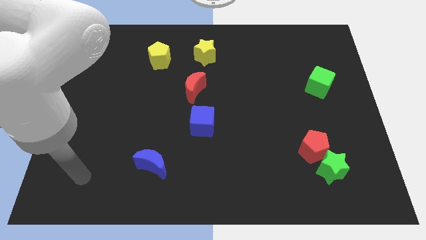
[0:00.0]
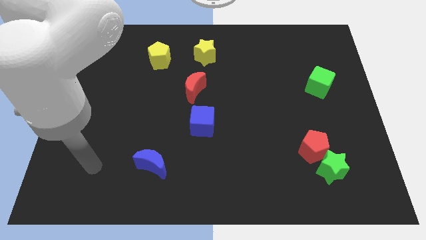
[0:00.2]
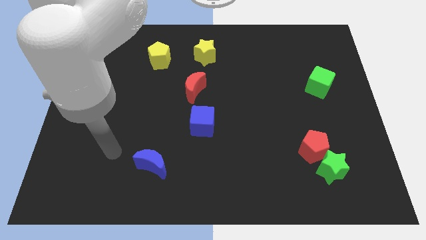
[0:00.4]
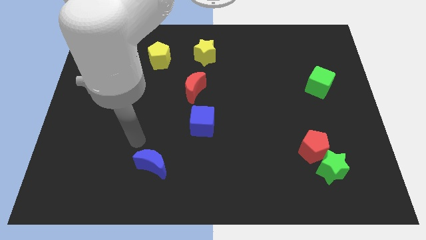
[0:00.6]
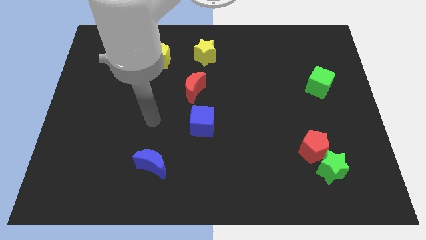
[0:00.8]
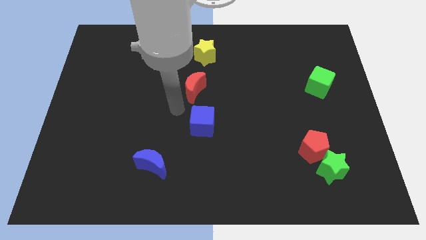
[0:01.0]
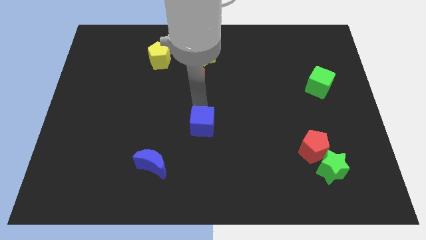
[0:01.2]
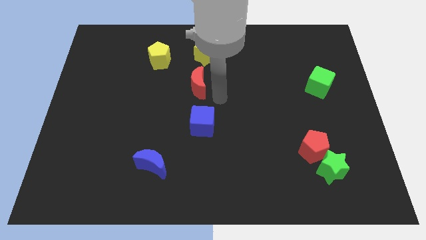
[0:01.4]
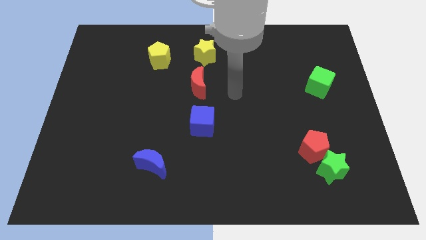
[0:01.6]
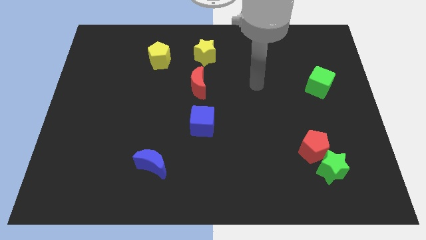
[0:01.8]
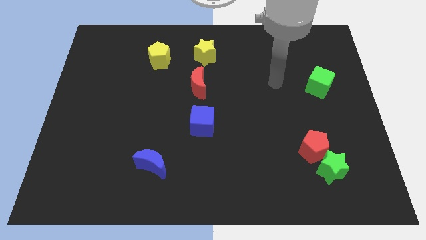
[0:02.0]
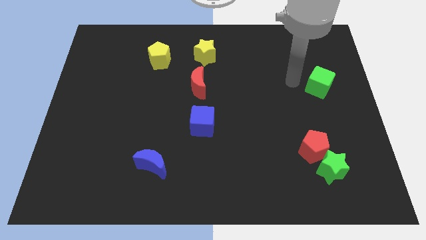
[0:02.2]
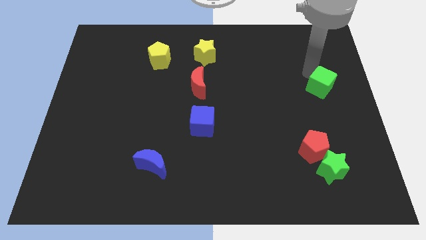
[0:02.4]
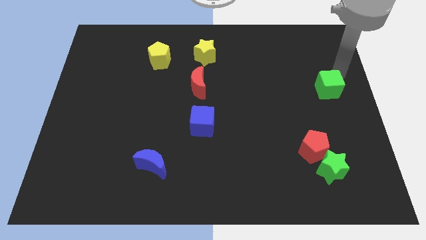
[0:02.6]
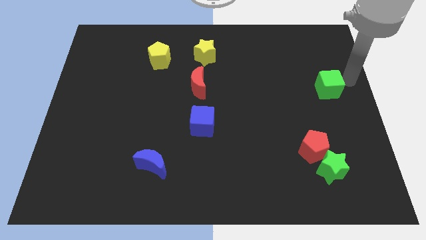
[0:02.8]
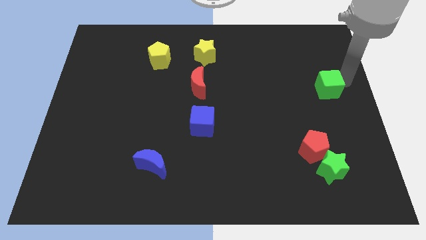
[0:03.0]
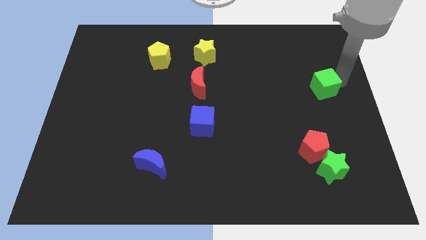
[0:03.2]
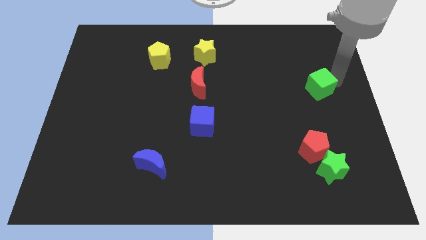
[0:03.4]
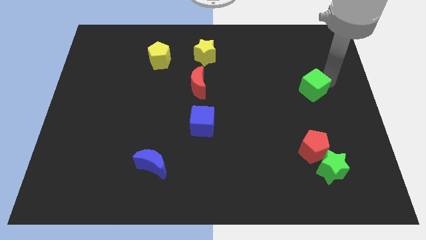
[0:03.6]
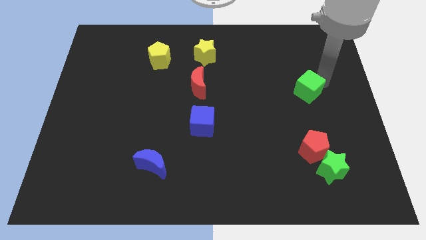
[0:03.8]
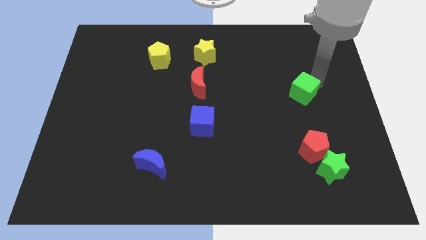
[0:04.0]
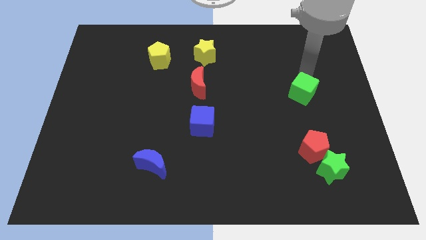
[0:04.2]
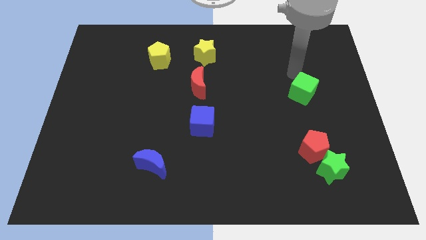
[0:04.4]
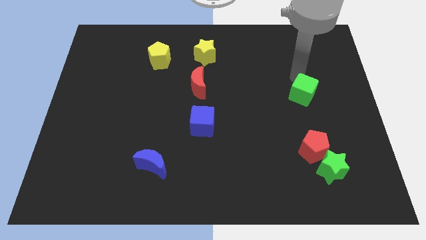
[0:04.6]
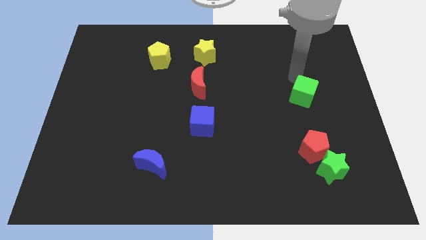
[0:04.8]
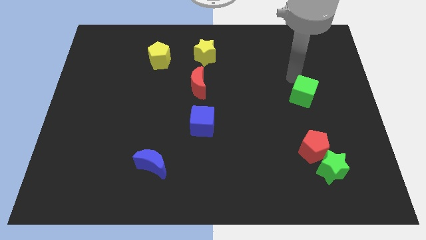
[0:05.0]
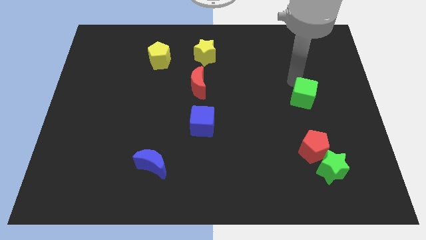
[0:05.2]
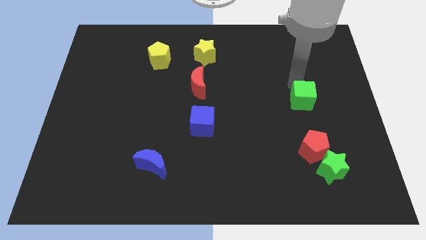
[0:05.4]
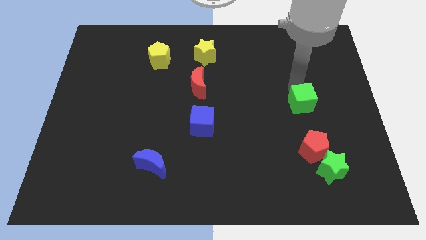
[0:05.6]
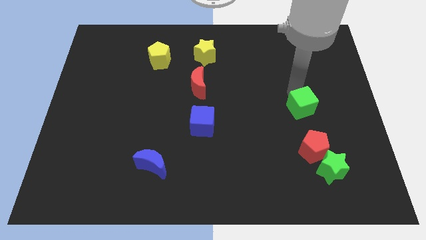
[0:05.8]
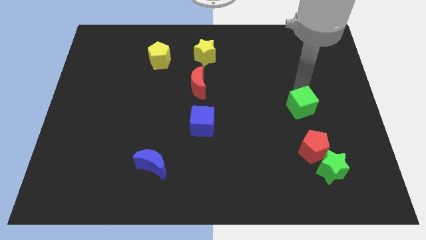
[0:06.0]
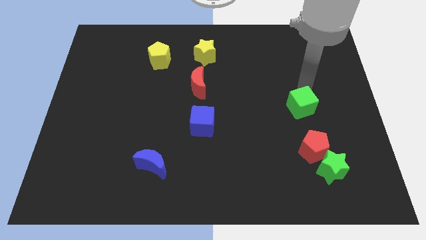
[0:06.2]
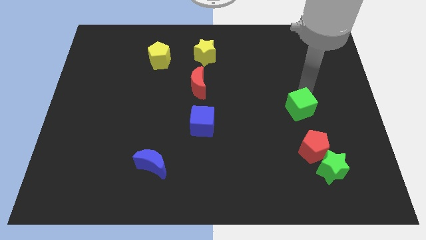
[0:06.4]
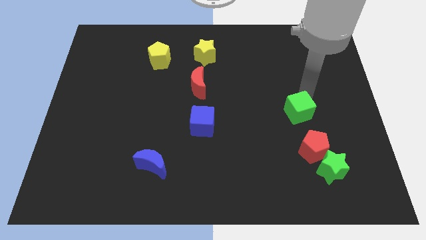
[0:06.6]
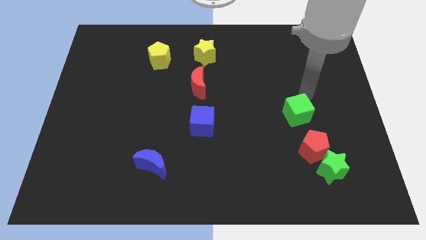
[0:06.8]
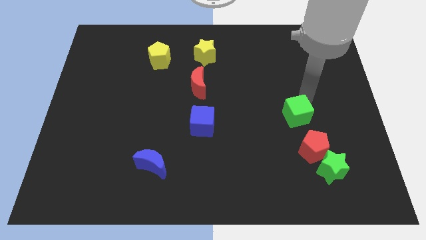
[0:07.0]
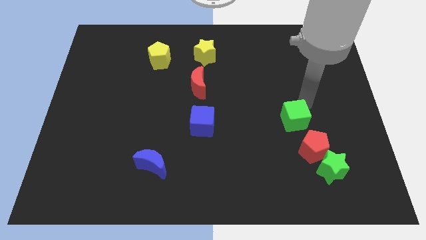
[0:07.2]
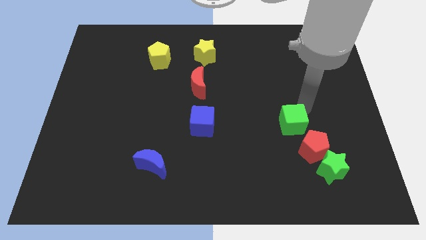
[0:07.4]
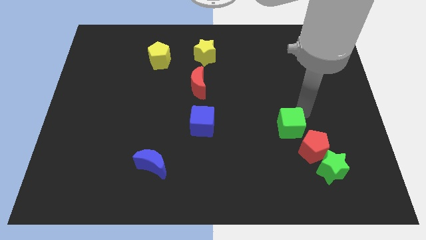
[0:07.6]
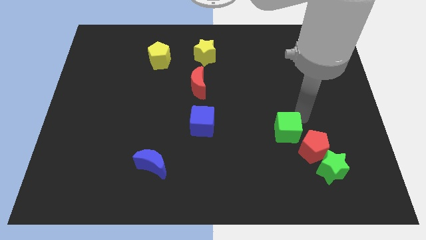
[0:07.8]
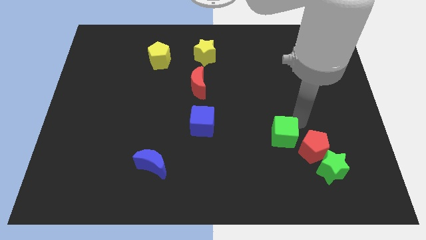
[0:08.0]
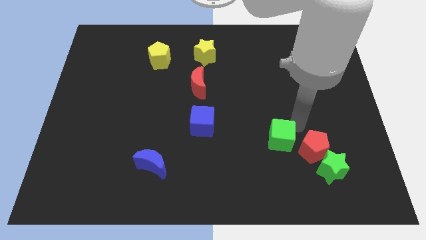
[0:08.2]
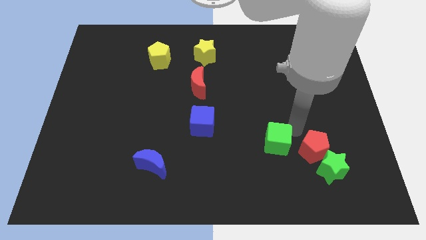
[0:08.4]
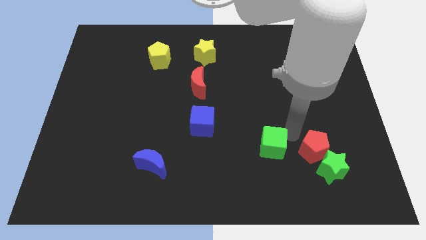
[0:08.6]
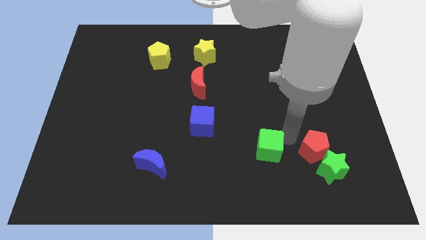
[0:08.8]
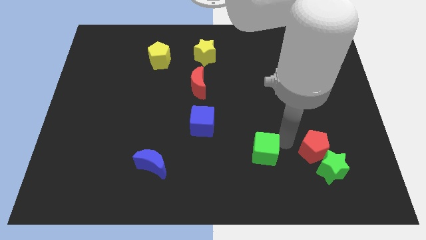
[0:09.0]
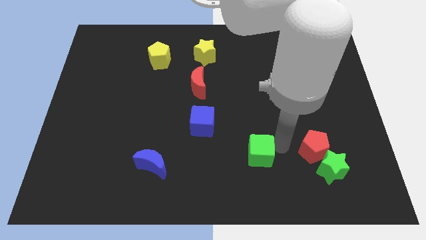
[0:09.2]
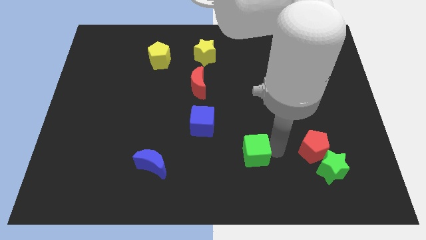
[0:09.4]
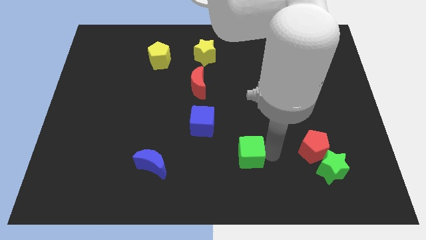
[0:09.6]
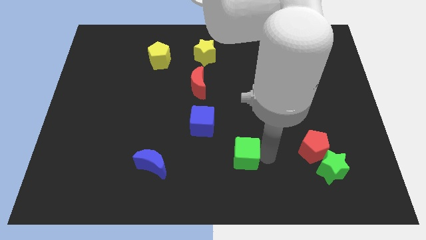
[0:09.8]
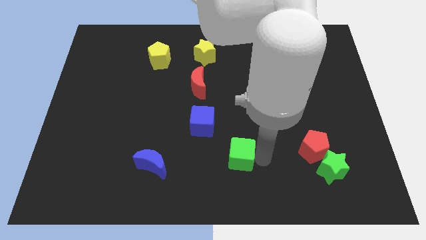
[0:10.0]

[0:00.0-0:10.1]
move the green cube to the bottom

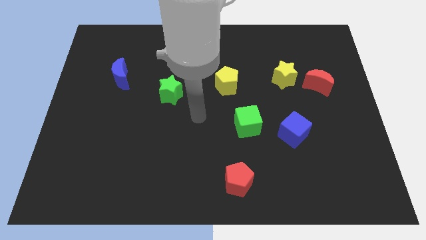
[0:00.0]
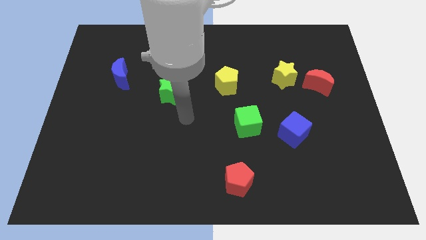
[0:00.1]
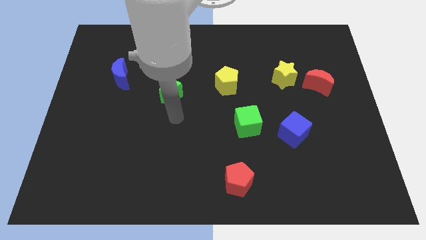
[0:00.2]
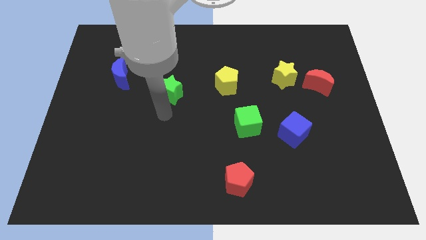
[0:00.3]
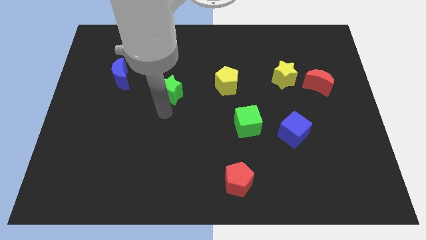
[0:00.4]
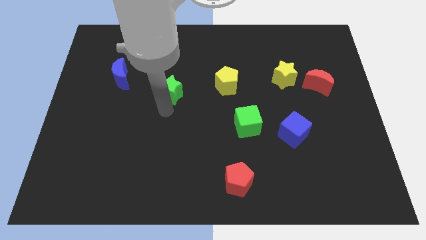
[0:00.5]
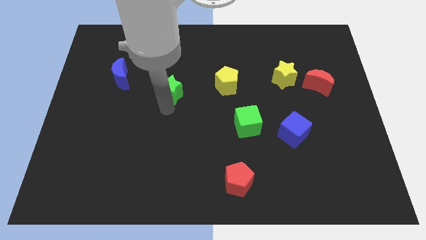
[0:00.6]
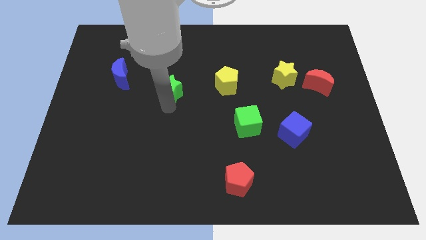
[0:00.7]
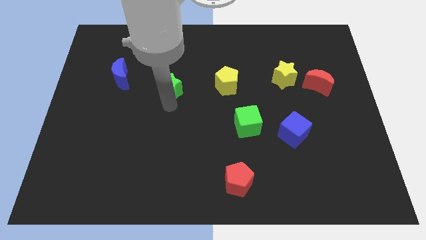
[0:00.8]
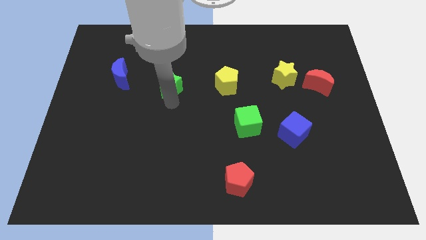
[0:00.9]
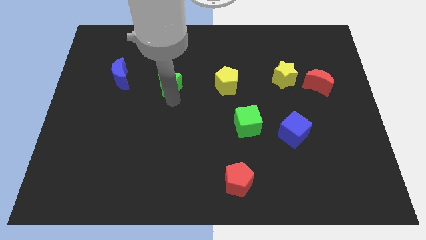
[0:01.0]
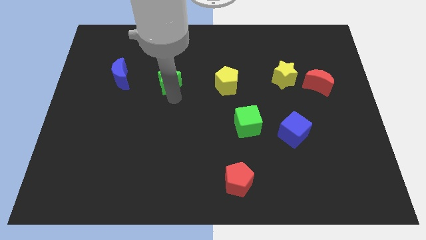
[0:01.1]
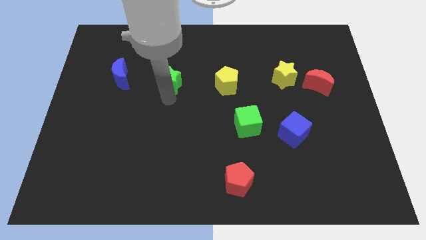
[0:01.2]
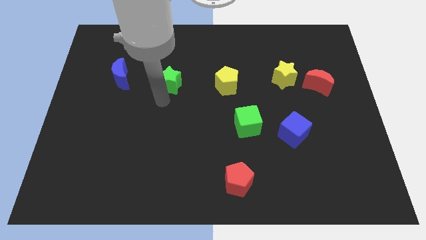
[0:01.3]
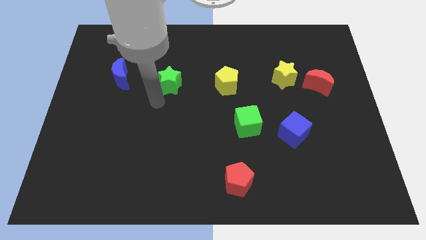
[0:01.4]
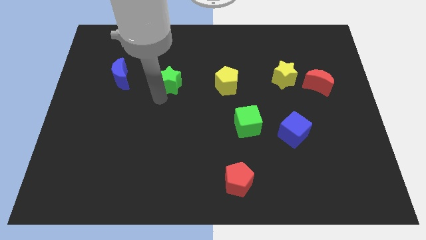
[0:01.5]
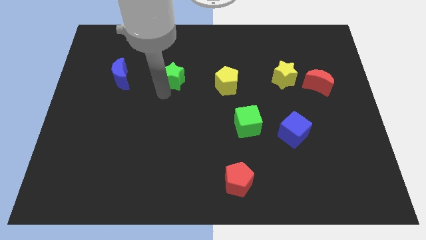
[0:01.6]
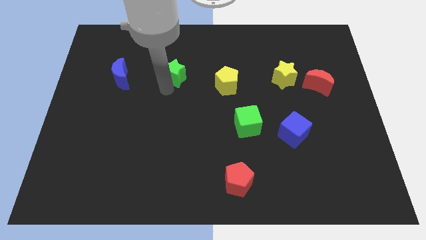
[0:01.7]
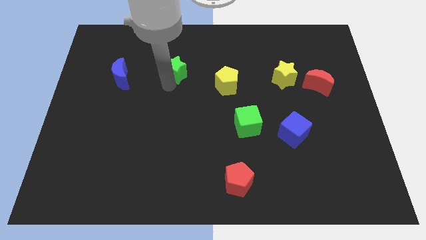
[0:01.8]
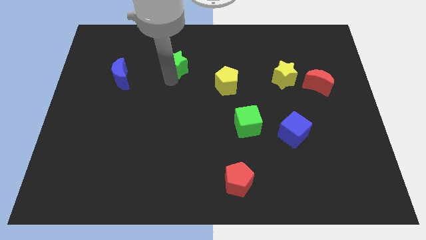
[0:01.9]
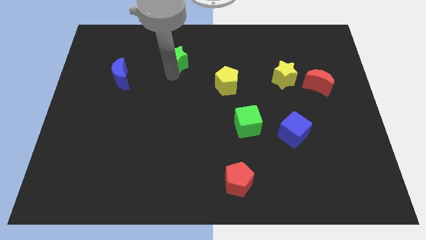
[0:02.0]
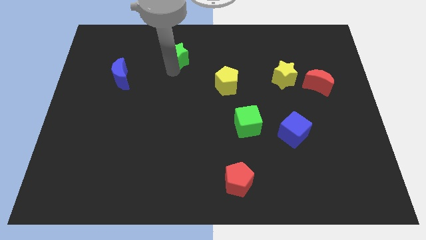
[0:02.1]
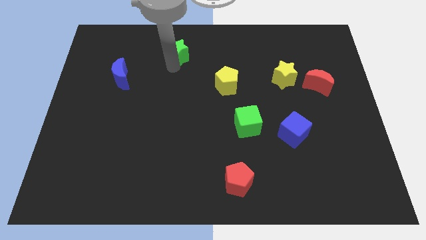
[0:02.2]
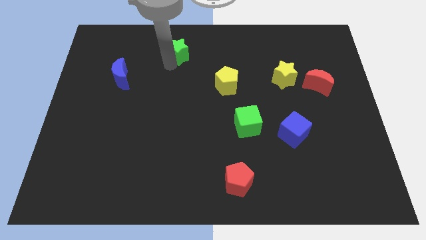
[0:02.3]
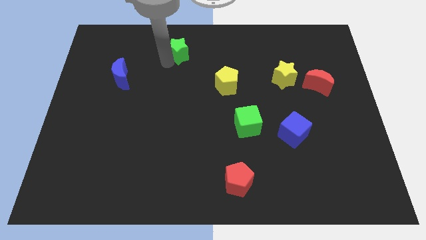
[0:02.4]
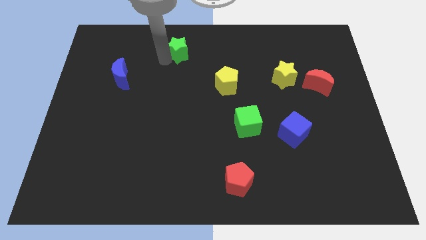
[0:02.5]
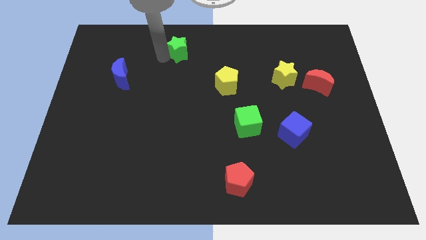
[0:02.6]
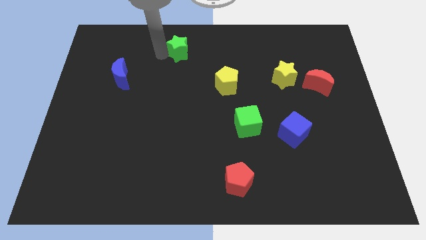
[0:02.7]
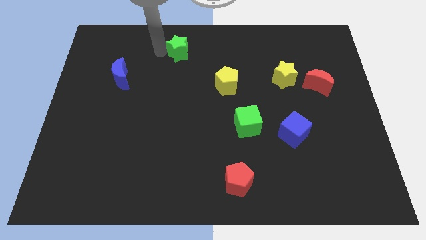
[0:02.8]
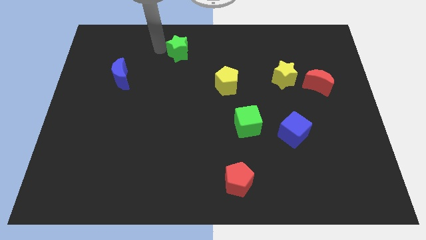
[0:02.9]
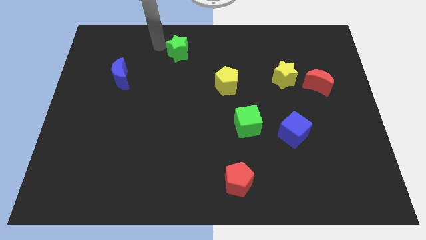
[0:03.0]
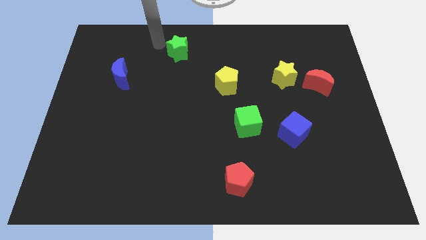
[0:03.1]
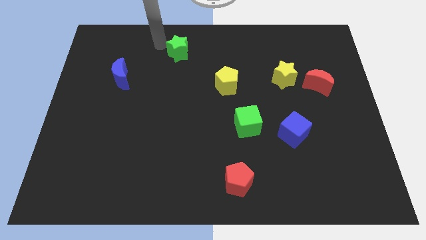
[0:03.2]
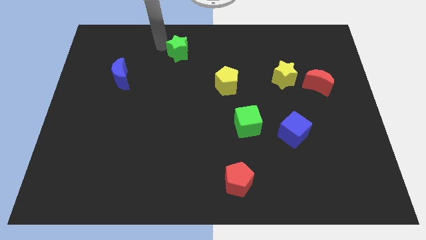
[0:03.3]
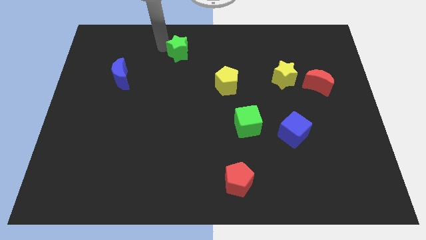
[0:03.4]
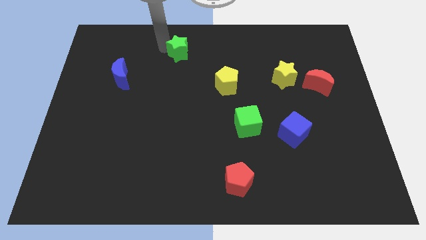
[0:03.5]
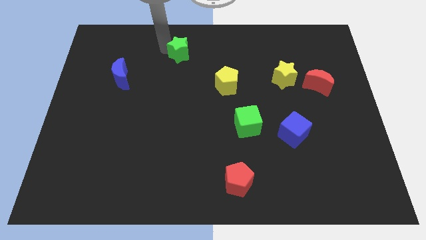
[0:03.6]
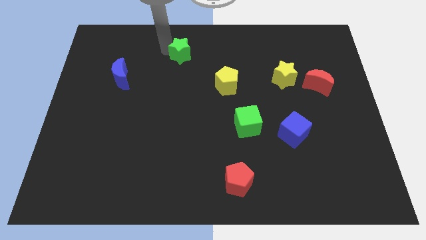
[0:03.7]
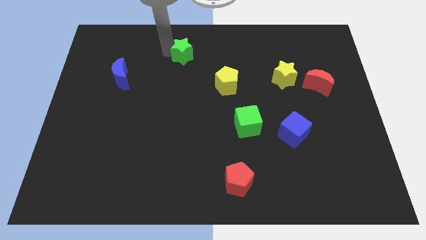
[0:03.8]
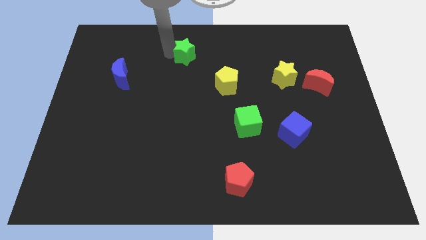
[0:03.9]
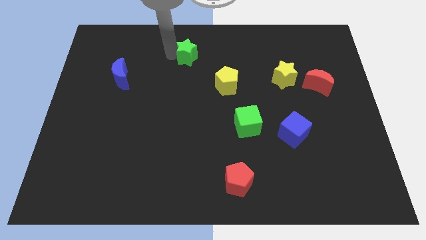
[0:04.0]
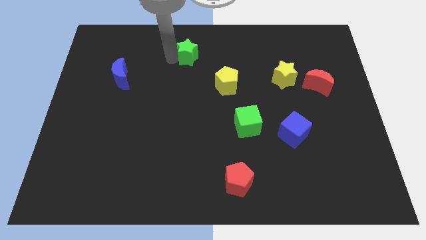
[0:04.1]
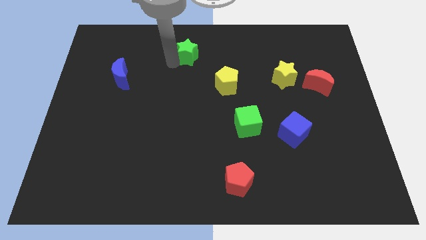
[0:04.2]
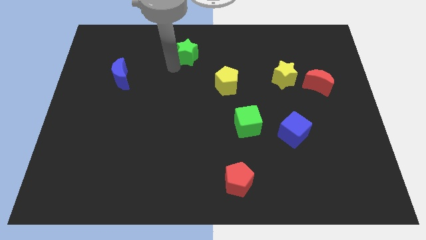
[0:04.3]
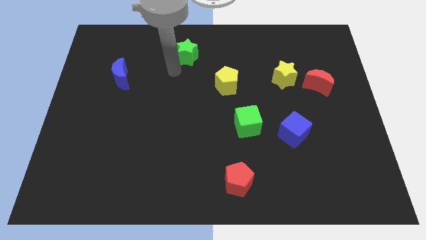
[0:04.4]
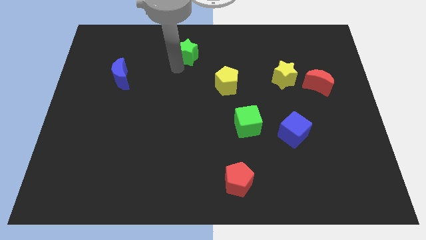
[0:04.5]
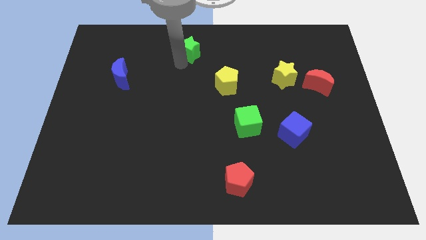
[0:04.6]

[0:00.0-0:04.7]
slide the green star to the towards your base
